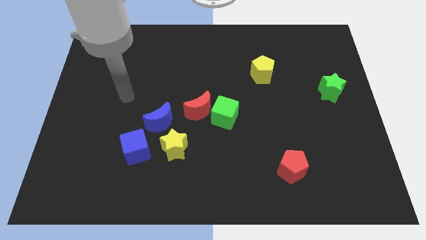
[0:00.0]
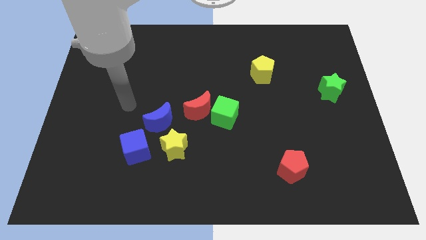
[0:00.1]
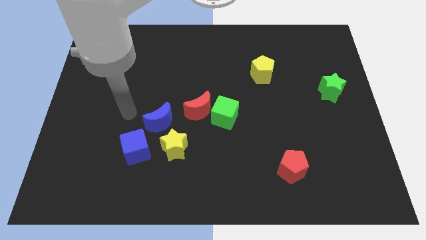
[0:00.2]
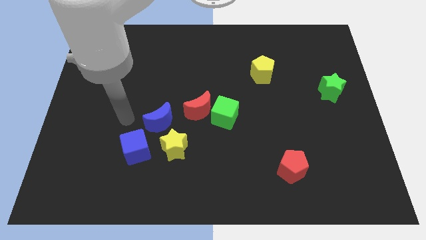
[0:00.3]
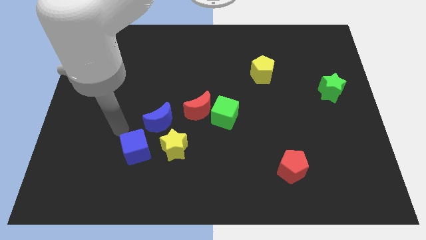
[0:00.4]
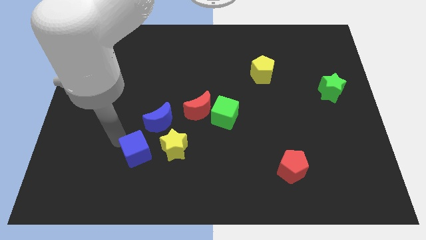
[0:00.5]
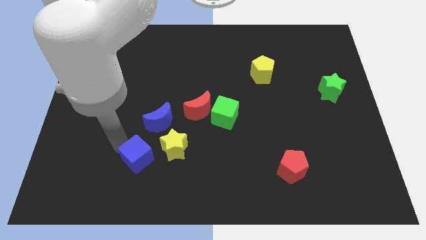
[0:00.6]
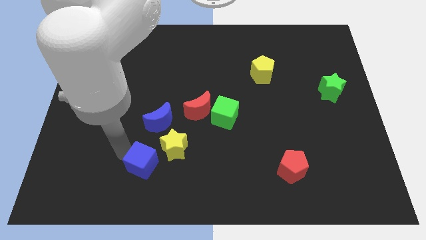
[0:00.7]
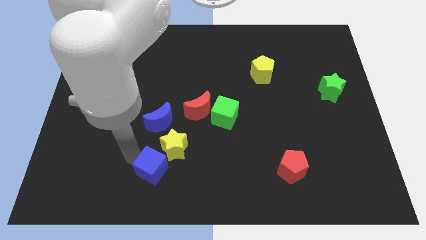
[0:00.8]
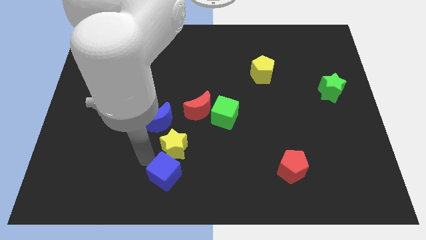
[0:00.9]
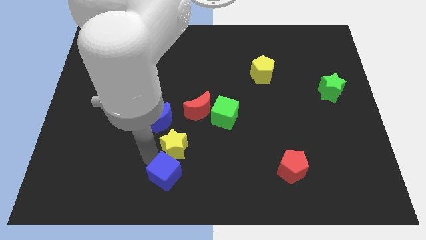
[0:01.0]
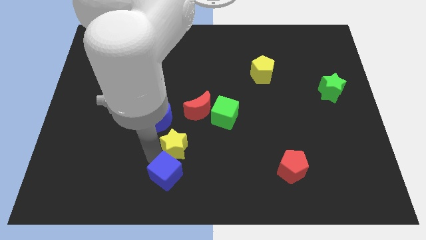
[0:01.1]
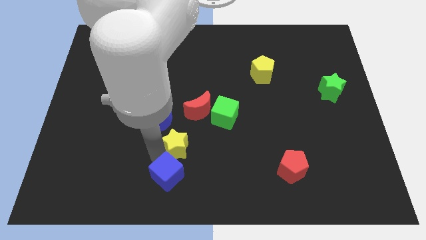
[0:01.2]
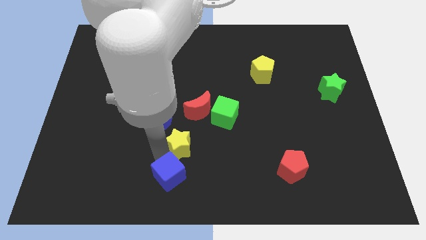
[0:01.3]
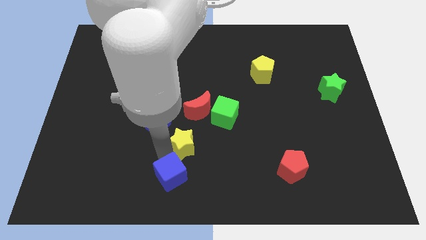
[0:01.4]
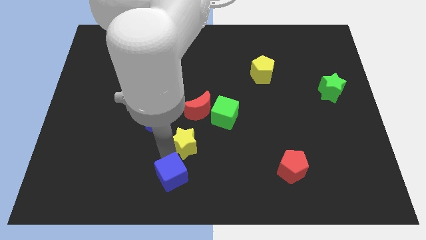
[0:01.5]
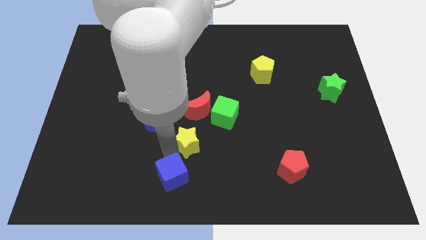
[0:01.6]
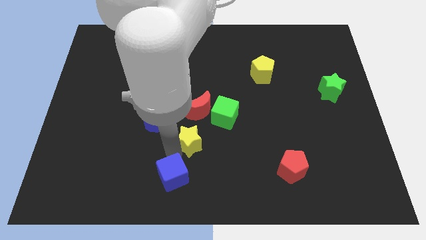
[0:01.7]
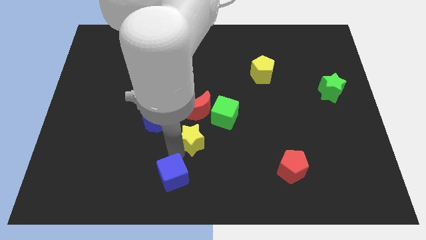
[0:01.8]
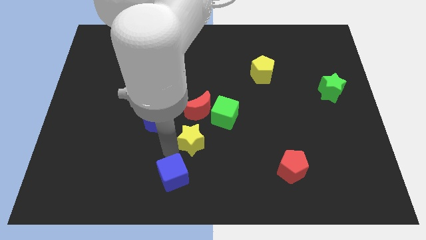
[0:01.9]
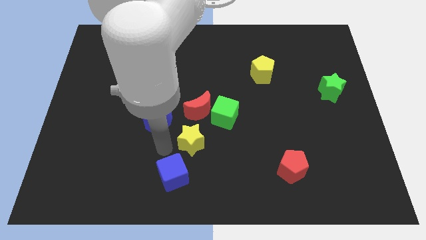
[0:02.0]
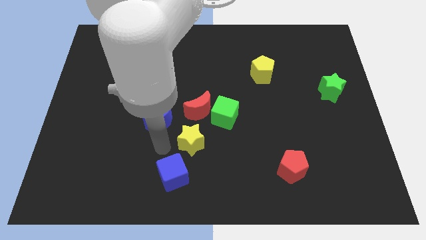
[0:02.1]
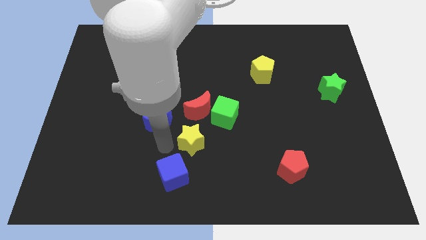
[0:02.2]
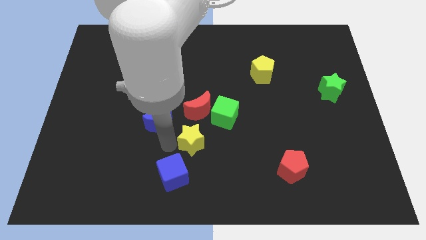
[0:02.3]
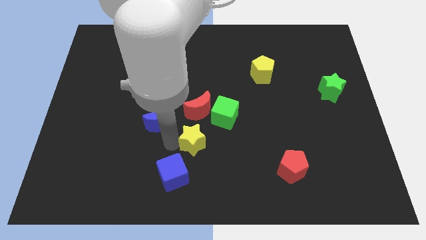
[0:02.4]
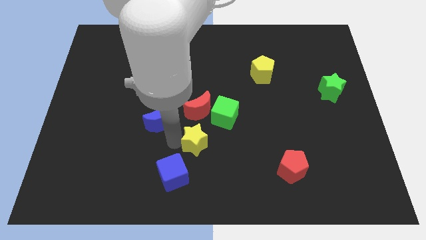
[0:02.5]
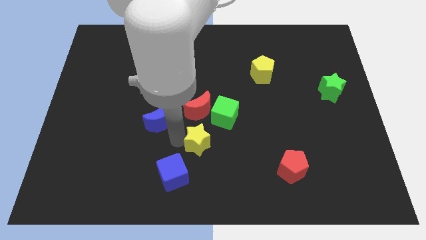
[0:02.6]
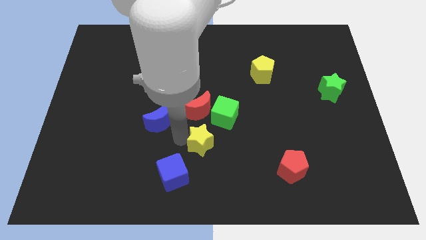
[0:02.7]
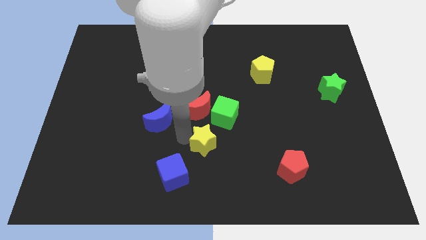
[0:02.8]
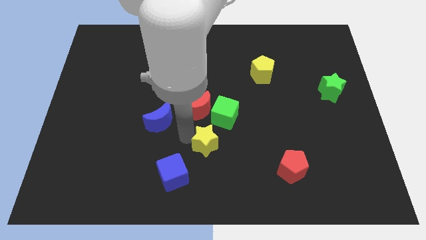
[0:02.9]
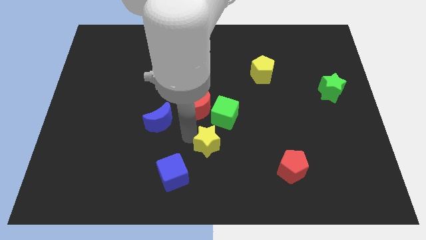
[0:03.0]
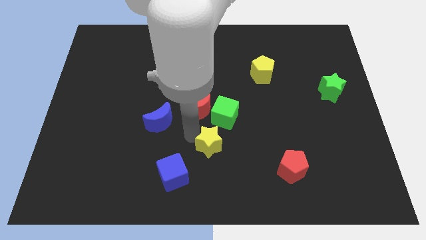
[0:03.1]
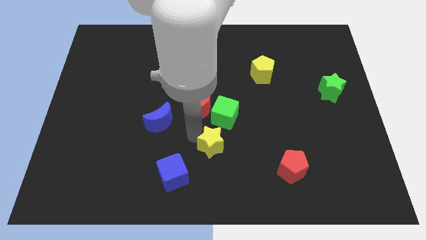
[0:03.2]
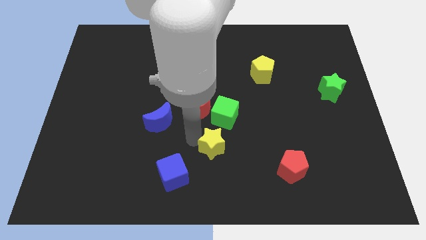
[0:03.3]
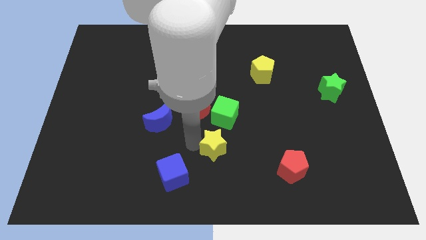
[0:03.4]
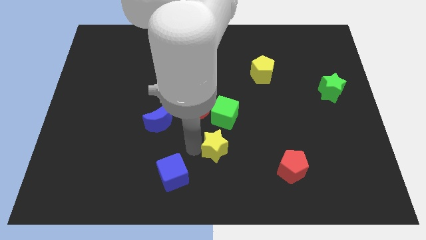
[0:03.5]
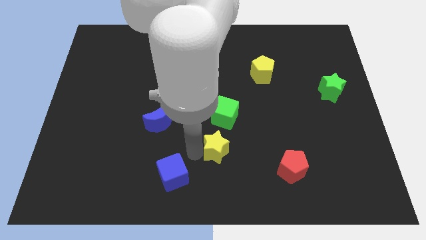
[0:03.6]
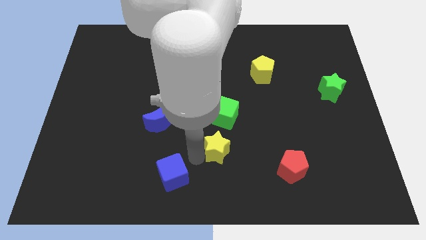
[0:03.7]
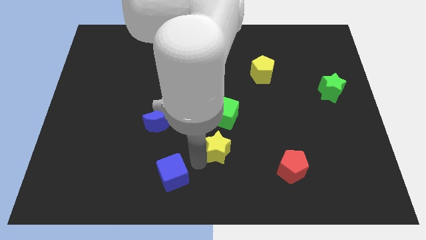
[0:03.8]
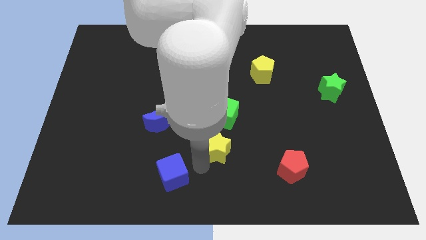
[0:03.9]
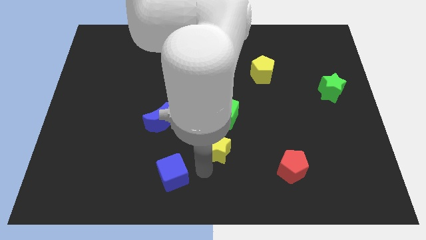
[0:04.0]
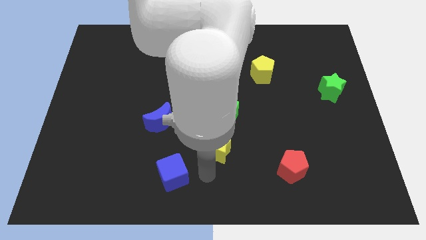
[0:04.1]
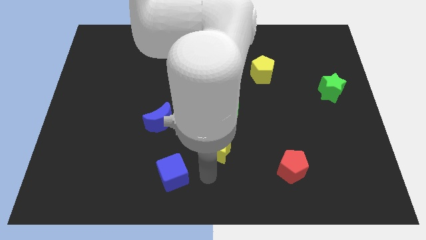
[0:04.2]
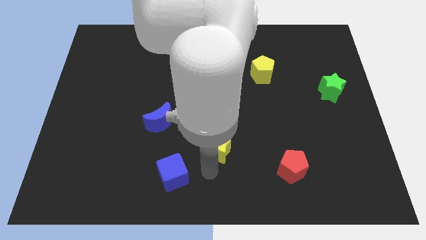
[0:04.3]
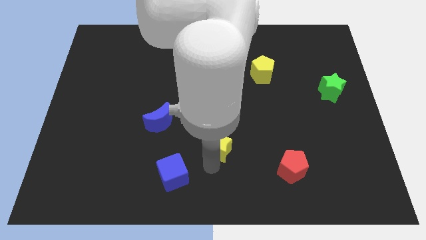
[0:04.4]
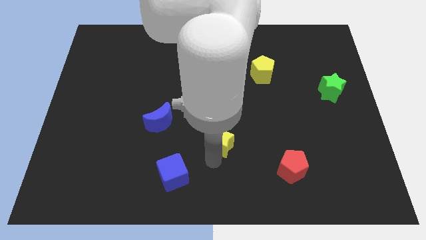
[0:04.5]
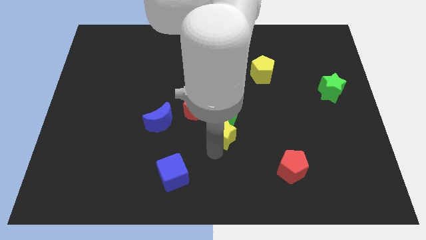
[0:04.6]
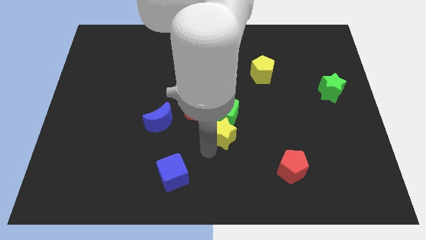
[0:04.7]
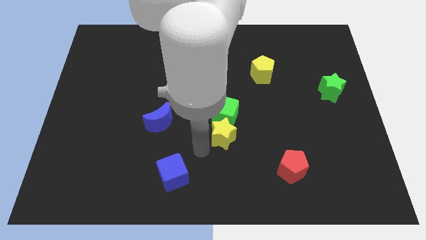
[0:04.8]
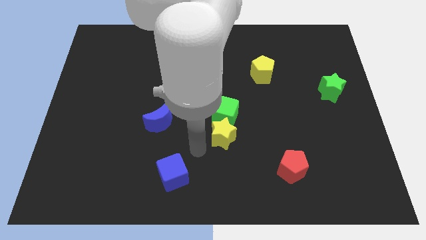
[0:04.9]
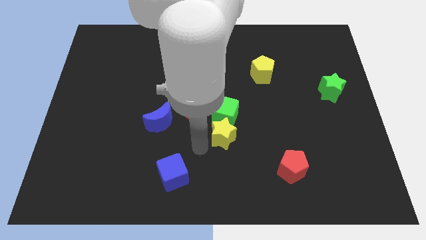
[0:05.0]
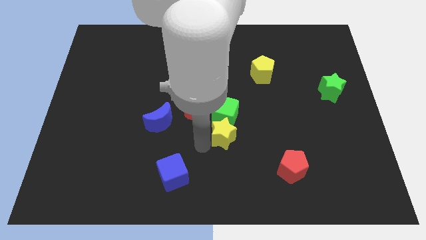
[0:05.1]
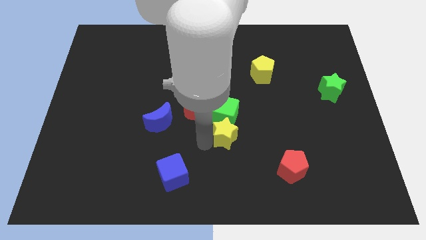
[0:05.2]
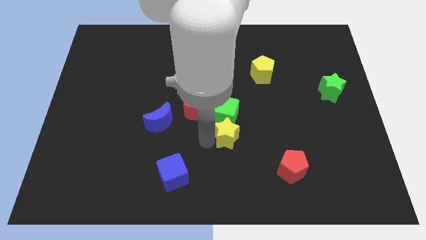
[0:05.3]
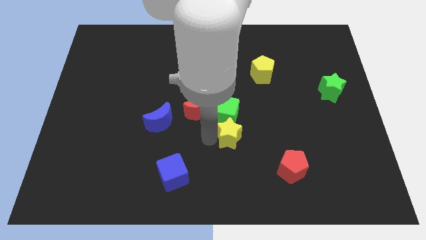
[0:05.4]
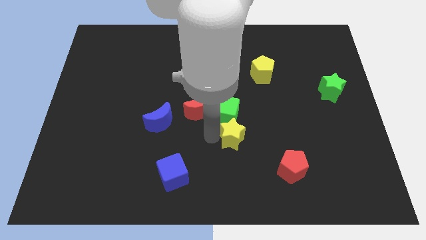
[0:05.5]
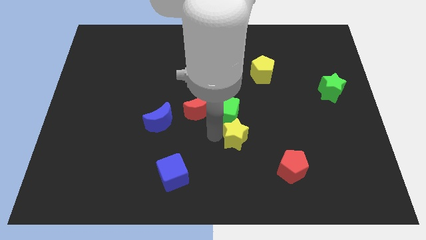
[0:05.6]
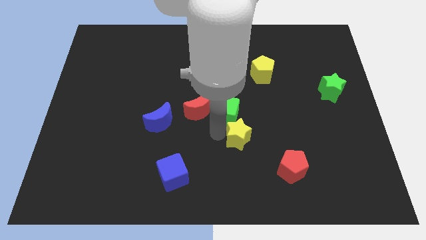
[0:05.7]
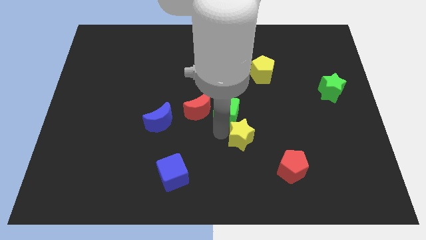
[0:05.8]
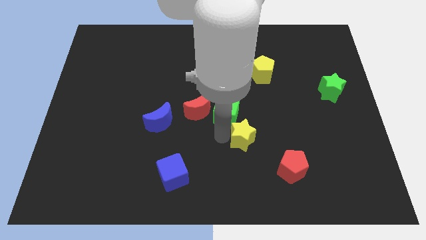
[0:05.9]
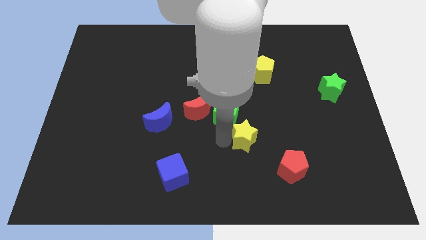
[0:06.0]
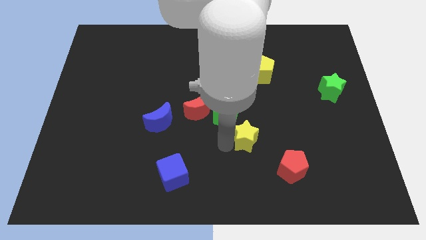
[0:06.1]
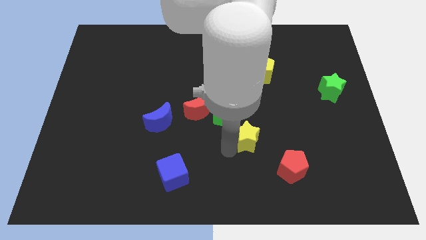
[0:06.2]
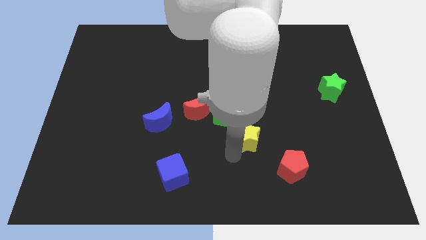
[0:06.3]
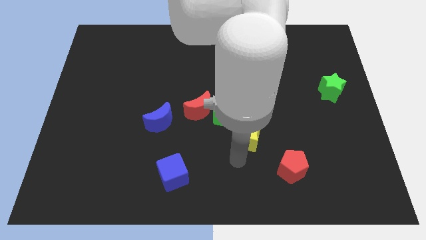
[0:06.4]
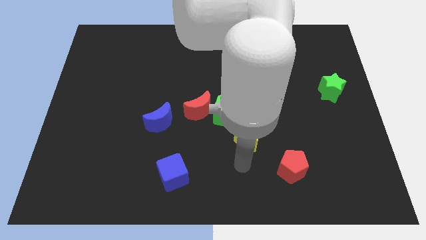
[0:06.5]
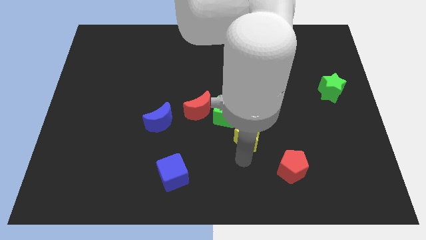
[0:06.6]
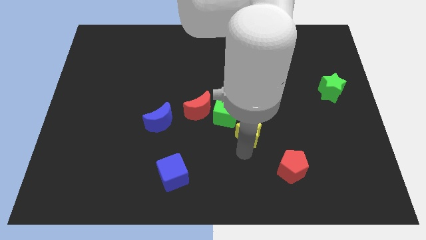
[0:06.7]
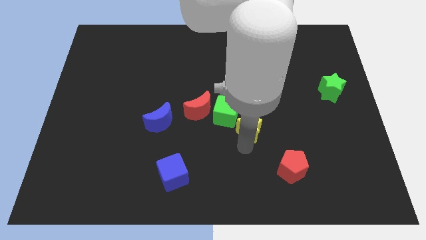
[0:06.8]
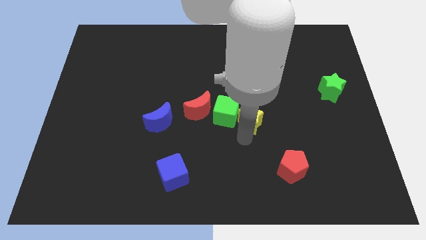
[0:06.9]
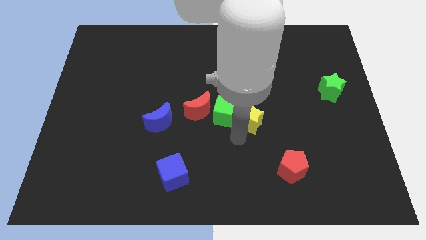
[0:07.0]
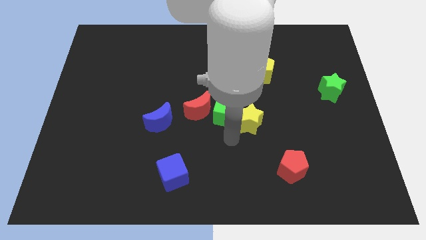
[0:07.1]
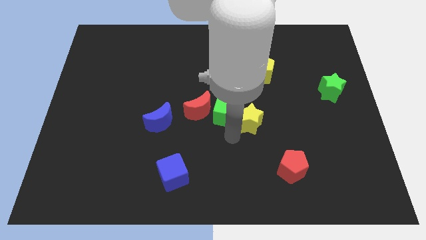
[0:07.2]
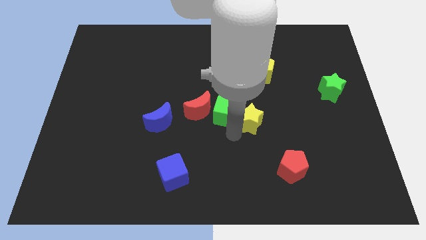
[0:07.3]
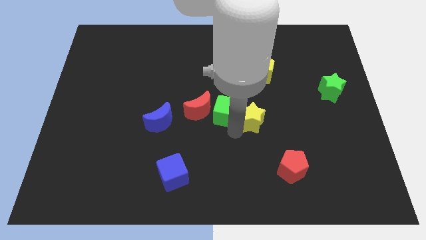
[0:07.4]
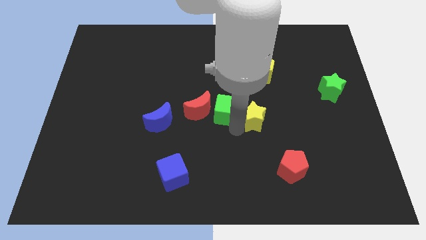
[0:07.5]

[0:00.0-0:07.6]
slide the yellow star below the yellow pentagon
